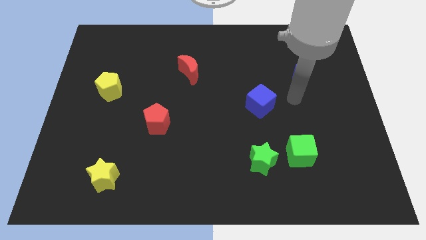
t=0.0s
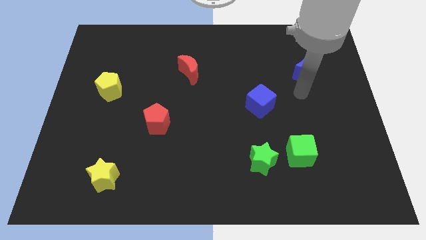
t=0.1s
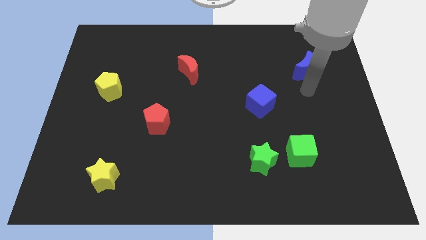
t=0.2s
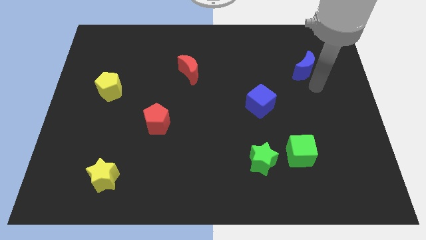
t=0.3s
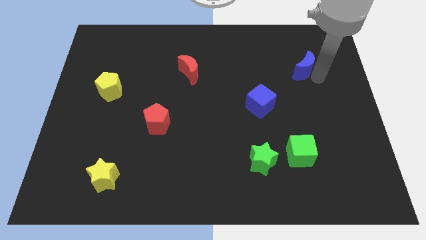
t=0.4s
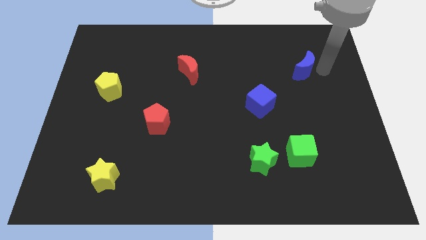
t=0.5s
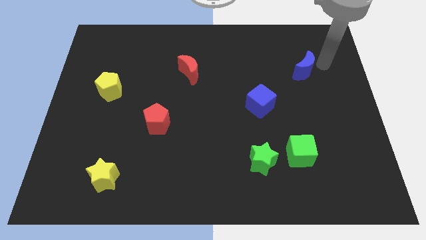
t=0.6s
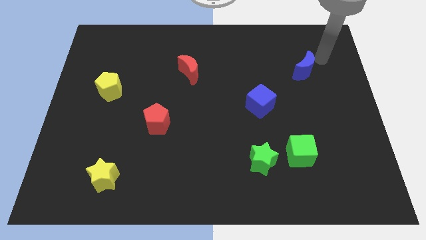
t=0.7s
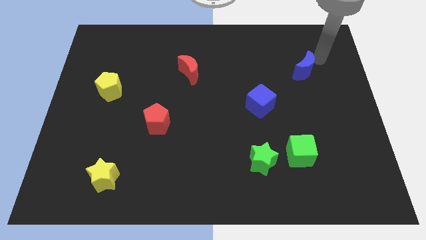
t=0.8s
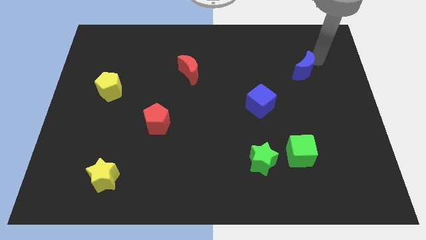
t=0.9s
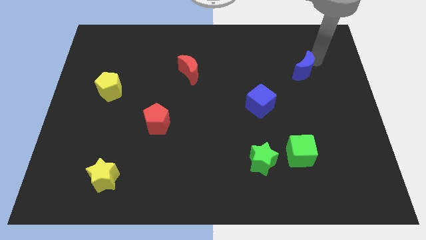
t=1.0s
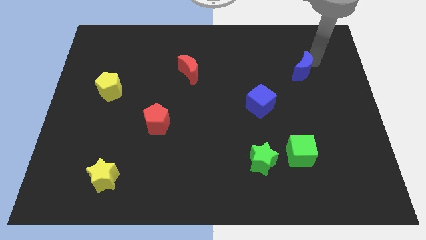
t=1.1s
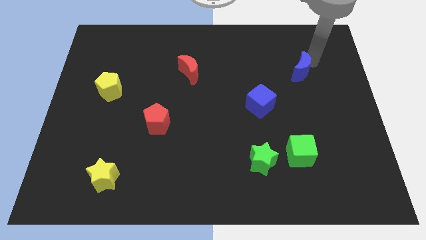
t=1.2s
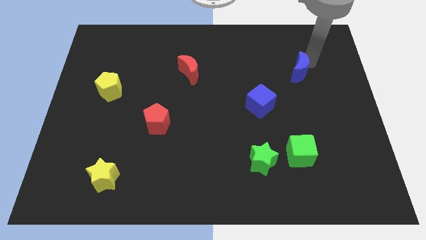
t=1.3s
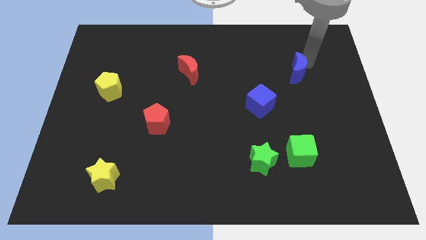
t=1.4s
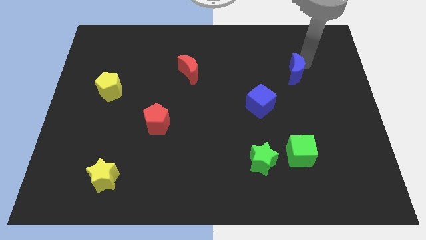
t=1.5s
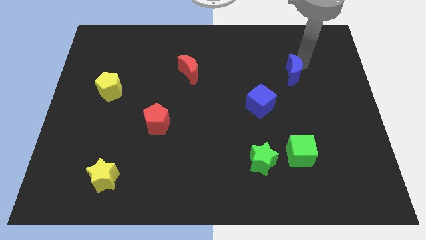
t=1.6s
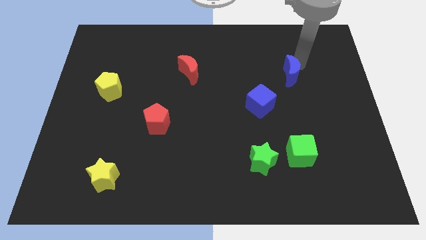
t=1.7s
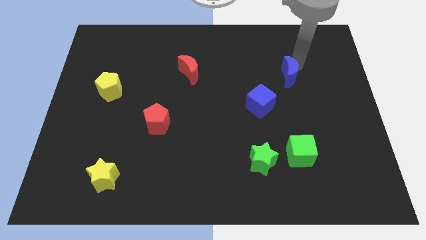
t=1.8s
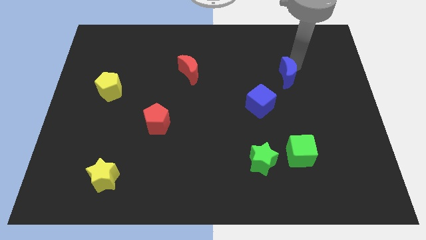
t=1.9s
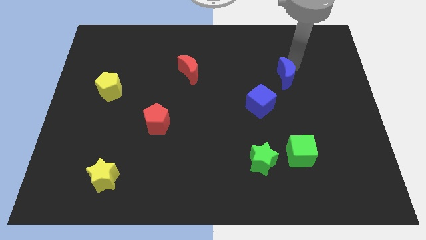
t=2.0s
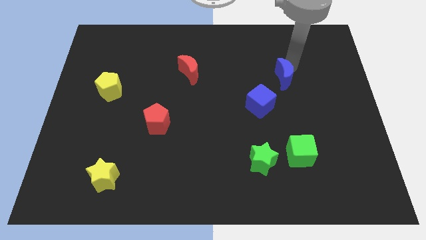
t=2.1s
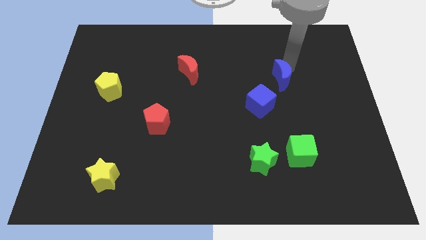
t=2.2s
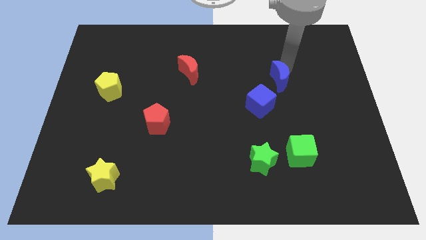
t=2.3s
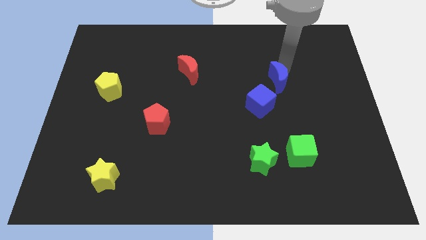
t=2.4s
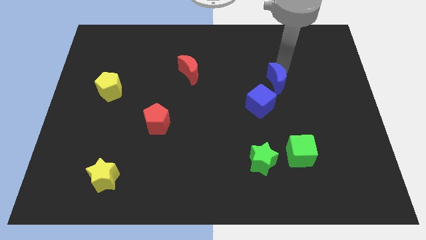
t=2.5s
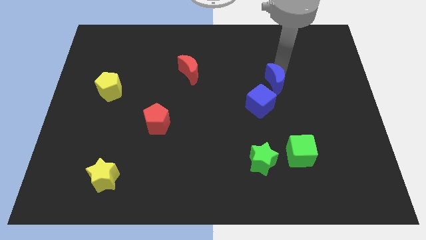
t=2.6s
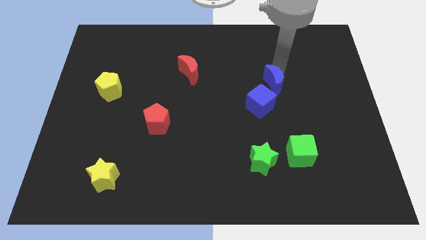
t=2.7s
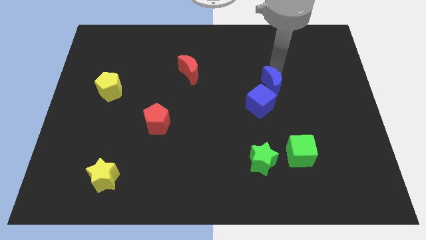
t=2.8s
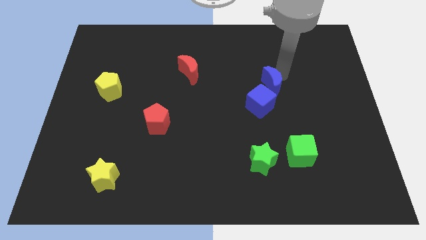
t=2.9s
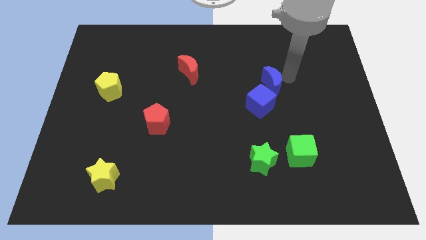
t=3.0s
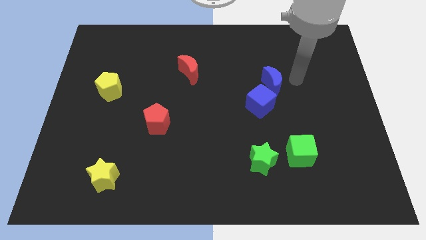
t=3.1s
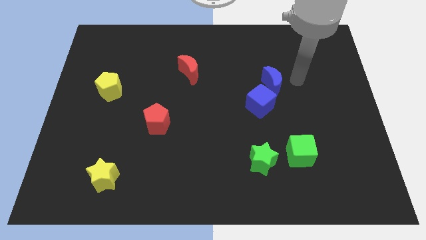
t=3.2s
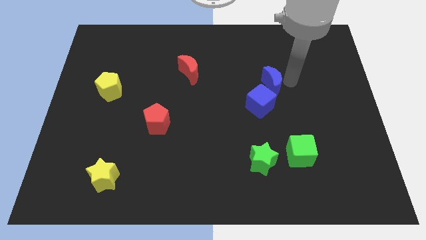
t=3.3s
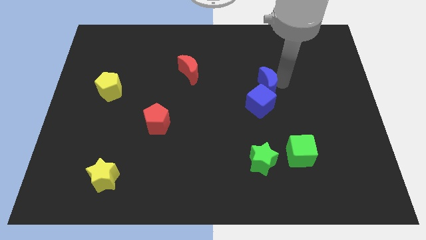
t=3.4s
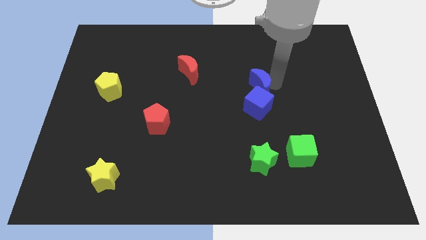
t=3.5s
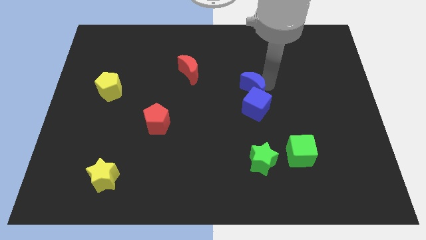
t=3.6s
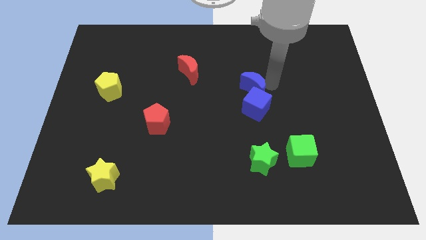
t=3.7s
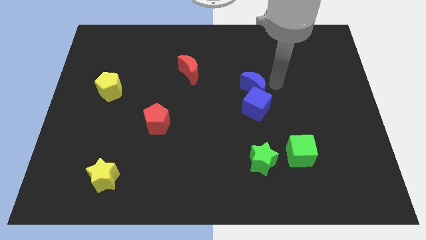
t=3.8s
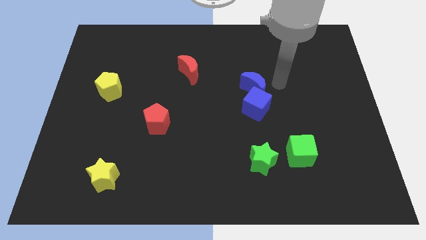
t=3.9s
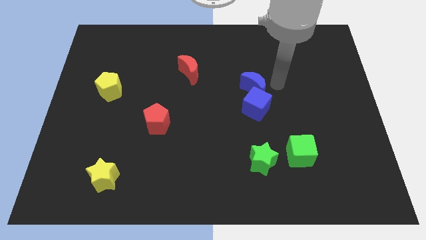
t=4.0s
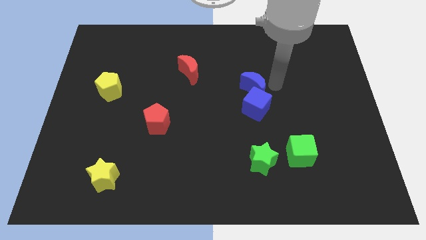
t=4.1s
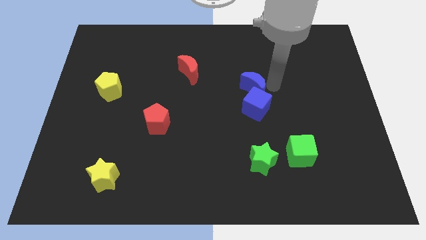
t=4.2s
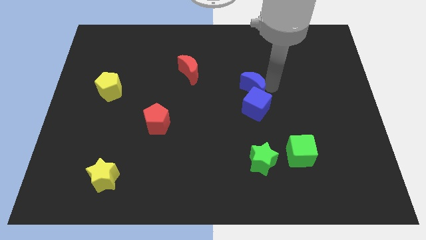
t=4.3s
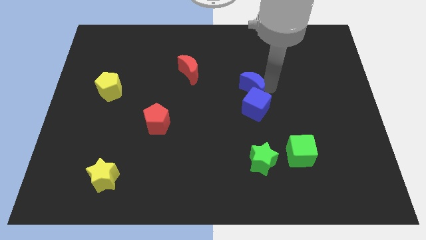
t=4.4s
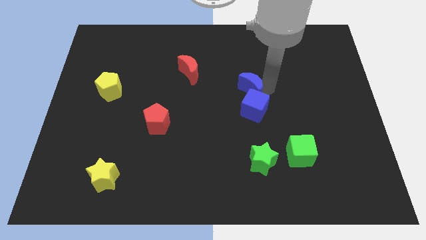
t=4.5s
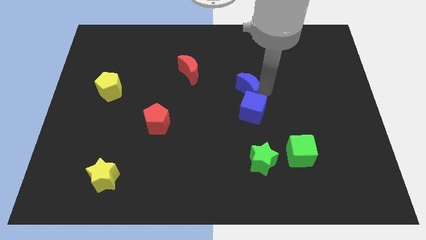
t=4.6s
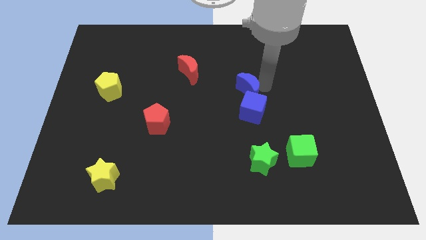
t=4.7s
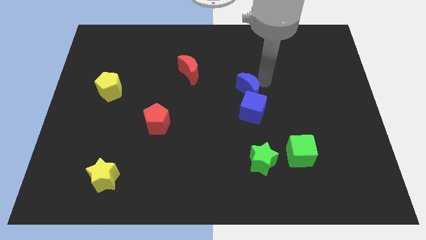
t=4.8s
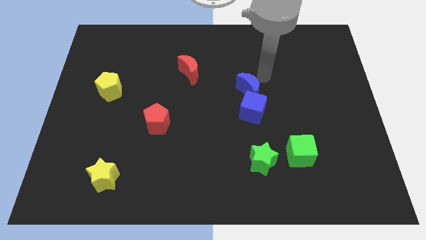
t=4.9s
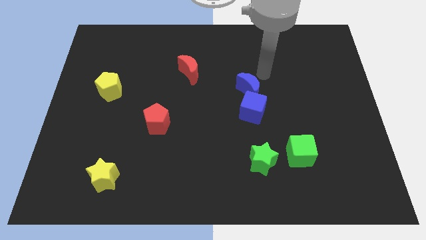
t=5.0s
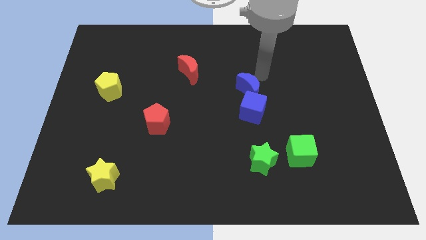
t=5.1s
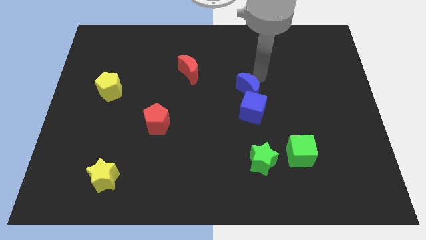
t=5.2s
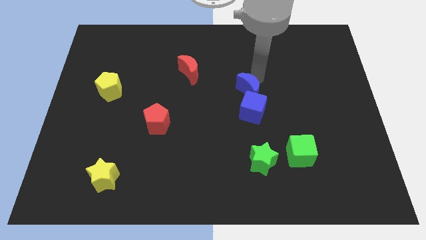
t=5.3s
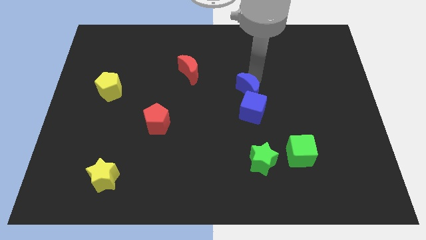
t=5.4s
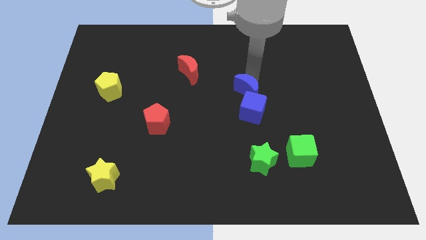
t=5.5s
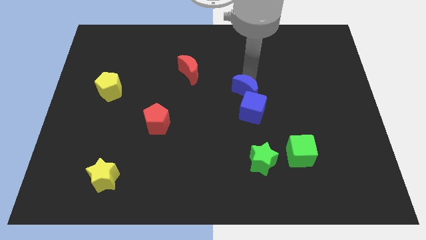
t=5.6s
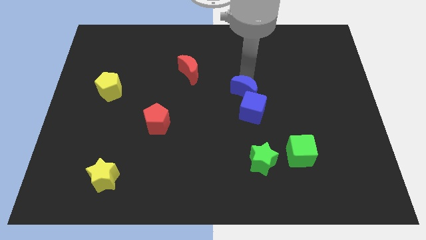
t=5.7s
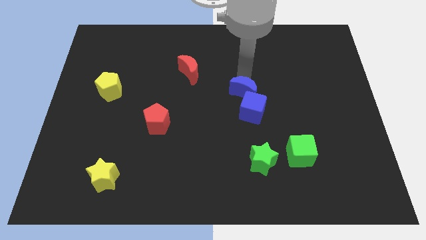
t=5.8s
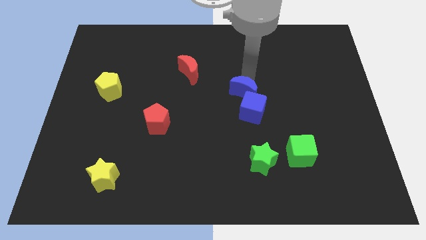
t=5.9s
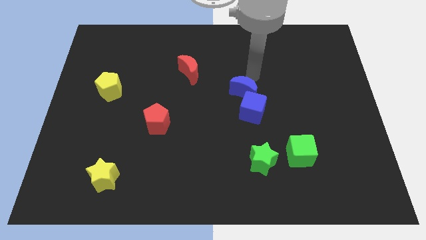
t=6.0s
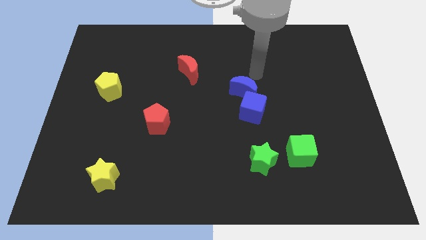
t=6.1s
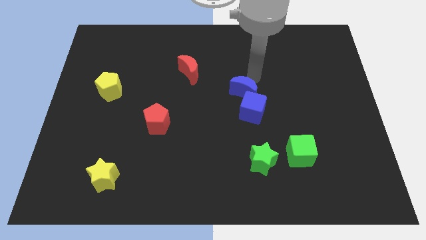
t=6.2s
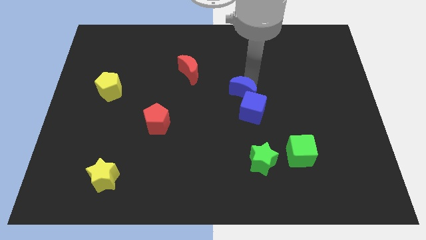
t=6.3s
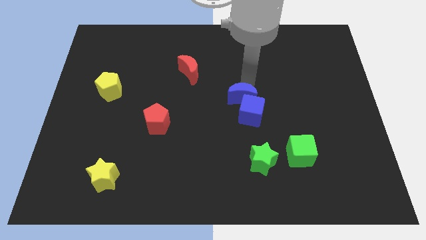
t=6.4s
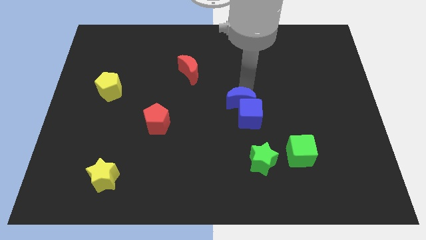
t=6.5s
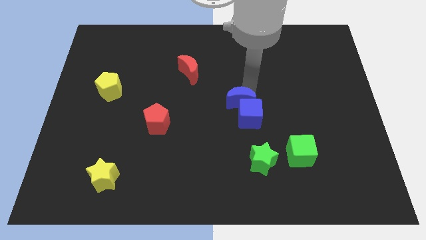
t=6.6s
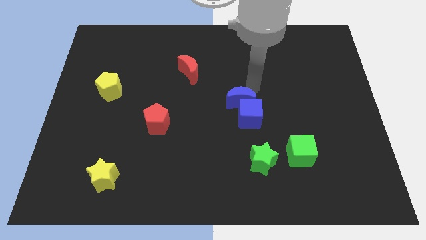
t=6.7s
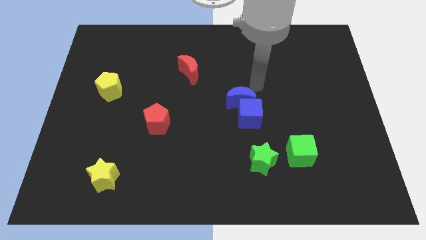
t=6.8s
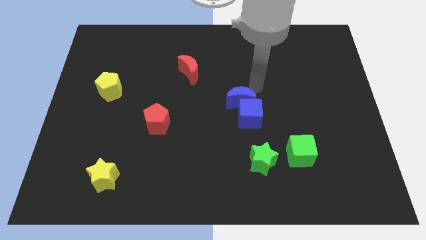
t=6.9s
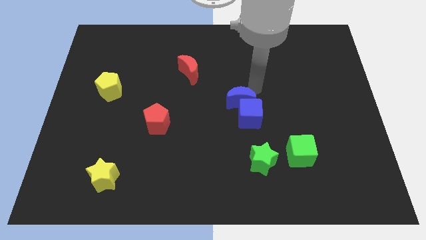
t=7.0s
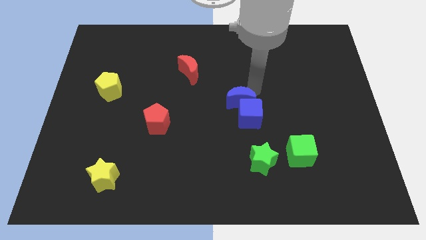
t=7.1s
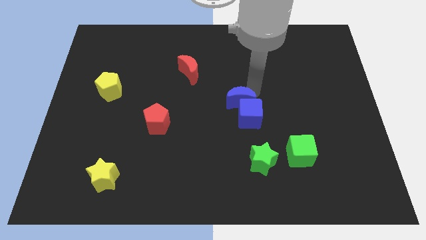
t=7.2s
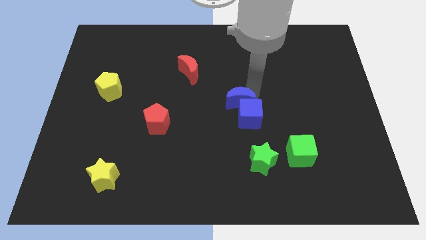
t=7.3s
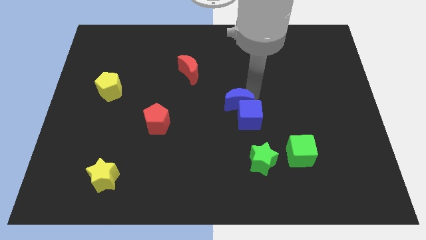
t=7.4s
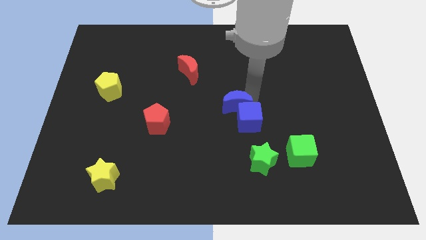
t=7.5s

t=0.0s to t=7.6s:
slide the blue moon down and left diagonally

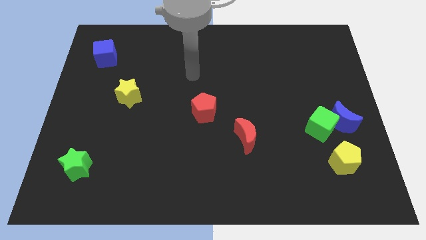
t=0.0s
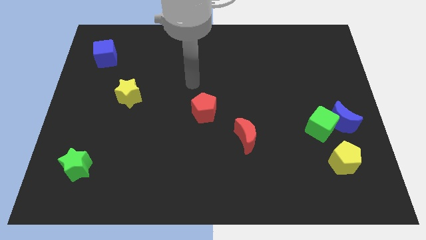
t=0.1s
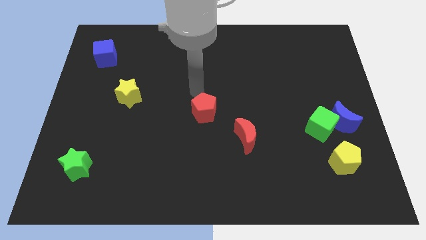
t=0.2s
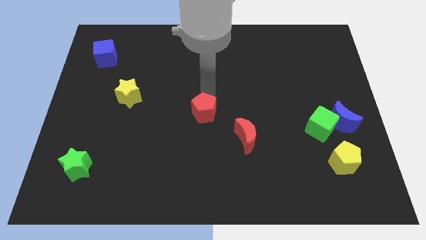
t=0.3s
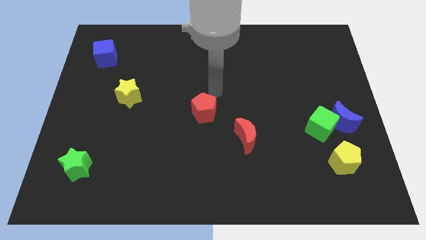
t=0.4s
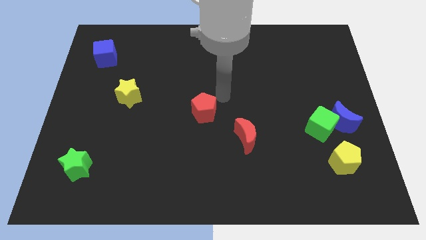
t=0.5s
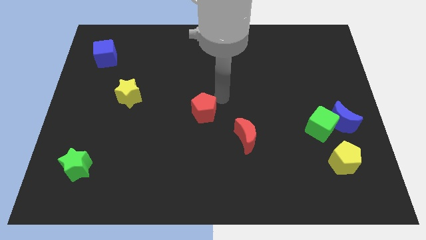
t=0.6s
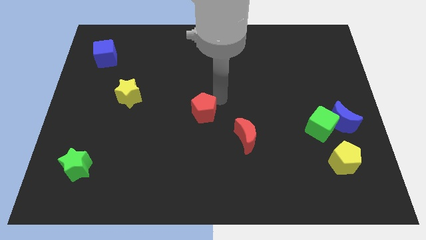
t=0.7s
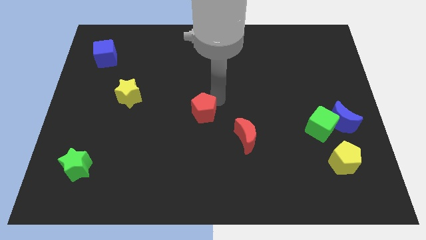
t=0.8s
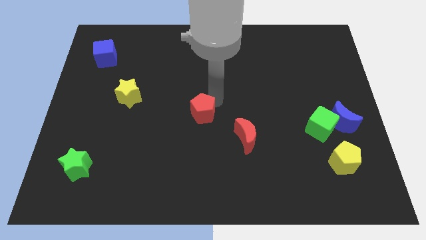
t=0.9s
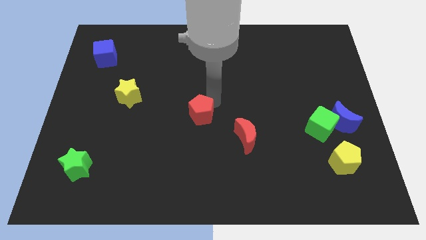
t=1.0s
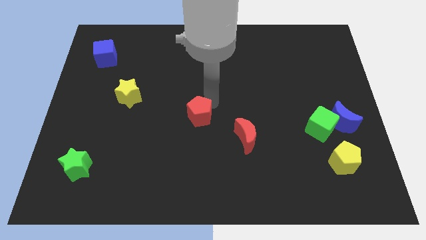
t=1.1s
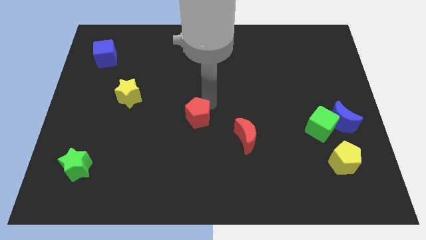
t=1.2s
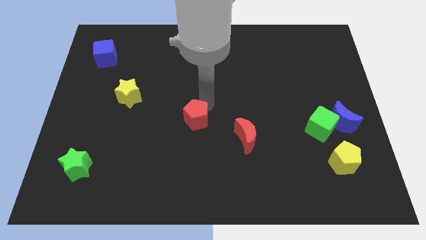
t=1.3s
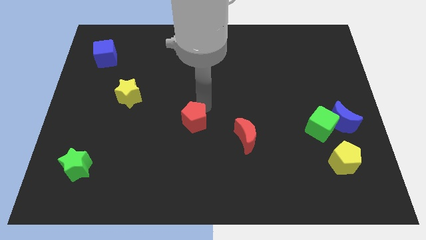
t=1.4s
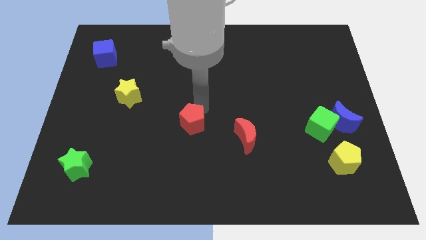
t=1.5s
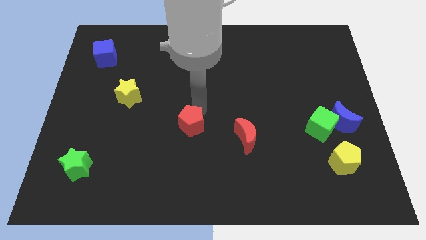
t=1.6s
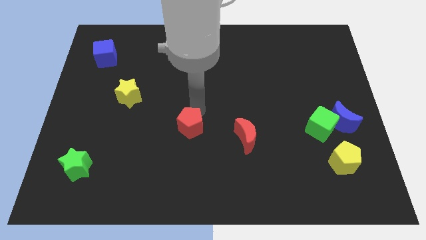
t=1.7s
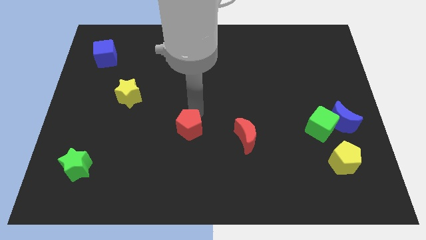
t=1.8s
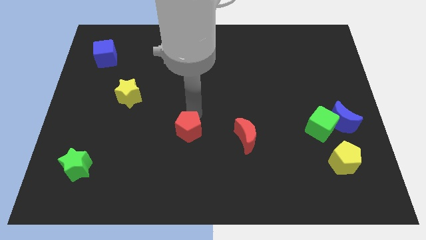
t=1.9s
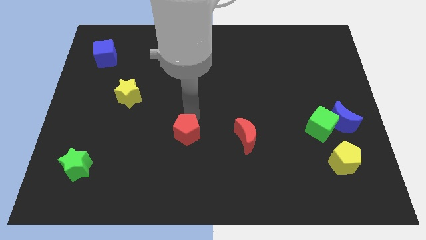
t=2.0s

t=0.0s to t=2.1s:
slide the red pentagon downwards and then to the left a little
